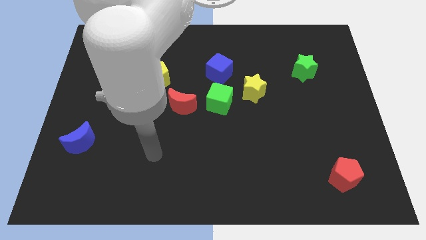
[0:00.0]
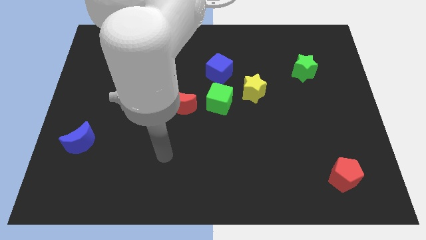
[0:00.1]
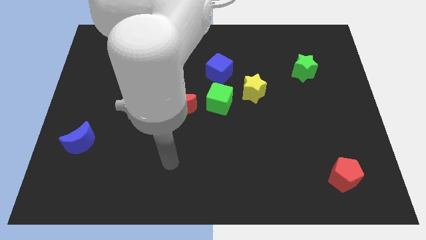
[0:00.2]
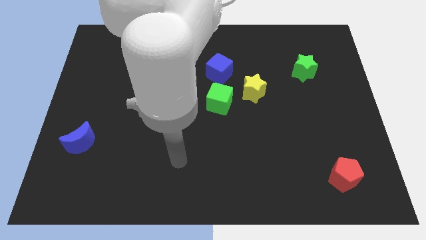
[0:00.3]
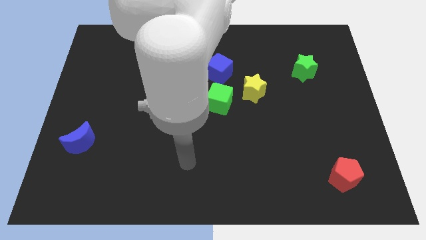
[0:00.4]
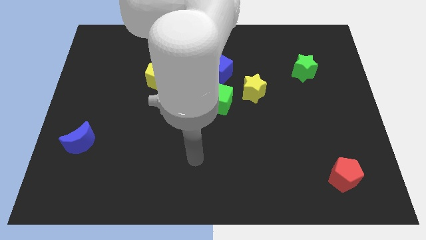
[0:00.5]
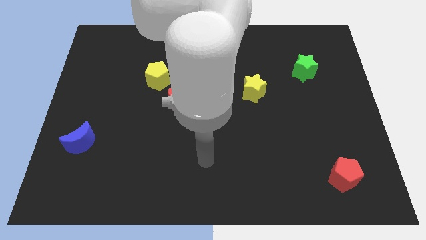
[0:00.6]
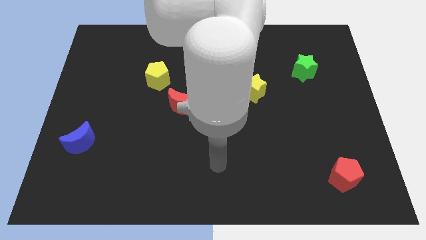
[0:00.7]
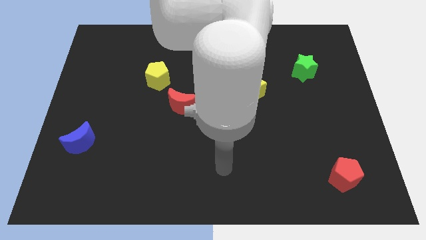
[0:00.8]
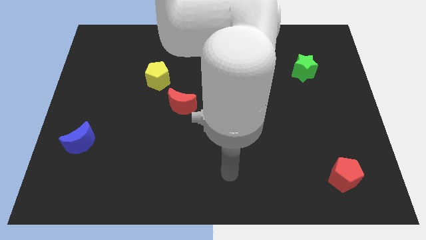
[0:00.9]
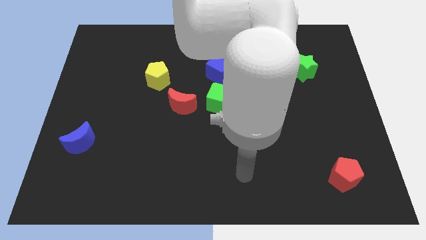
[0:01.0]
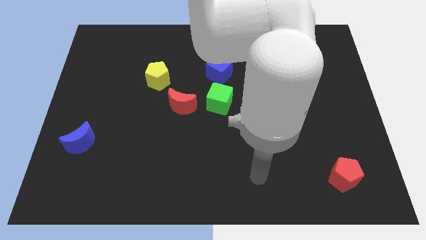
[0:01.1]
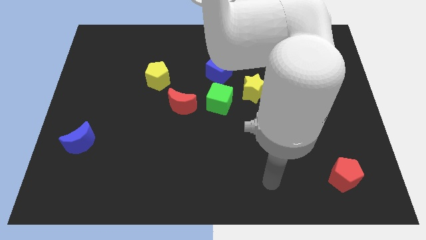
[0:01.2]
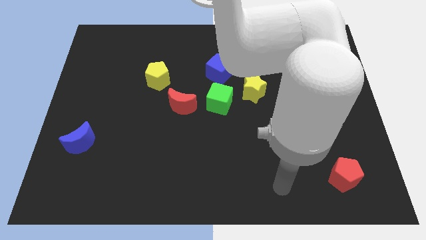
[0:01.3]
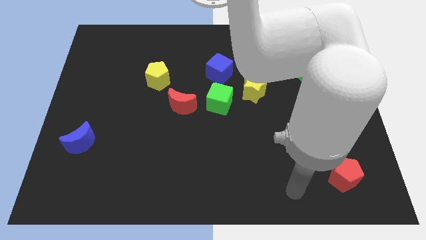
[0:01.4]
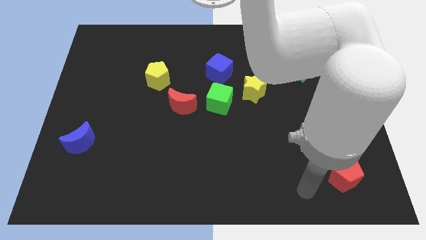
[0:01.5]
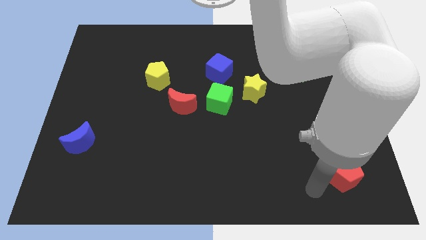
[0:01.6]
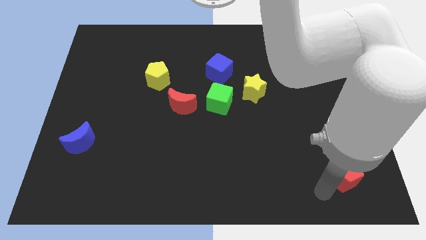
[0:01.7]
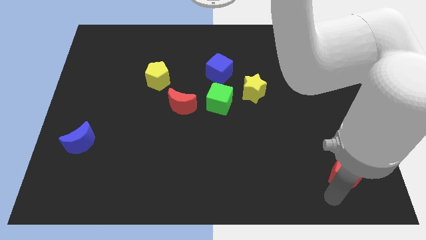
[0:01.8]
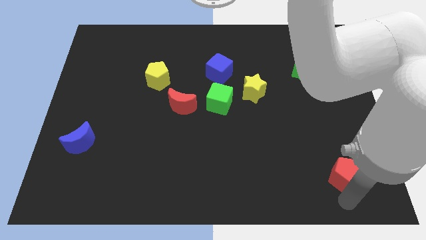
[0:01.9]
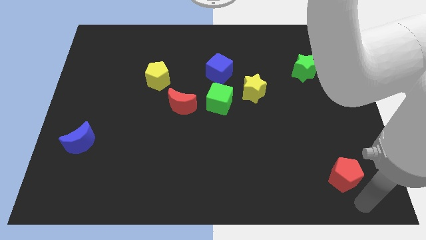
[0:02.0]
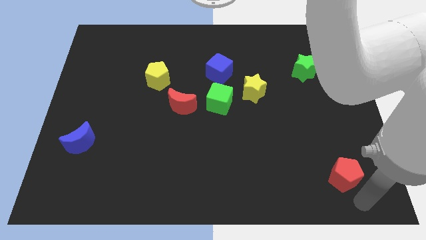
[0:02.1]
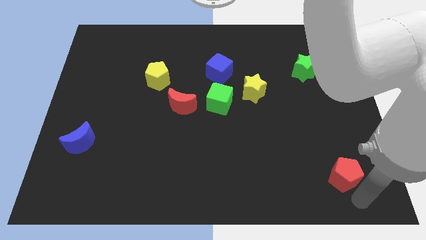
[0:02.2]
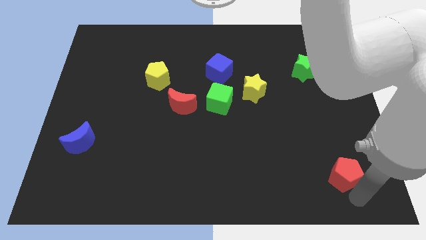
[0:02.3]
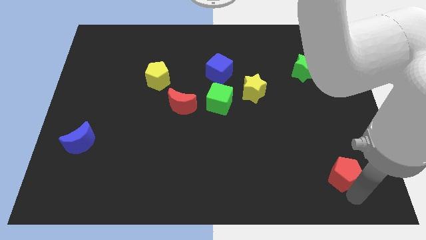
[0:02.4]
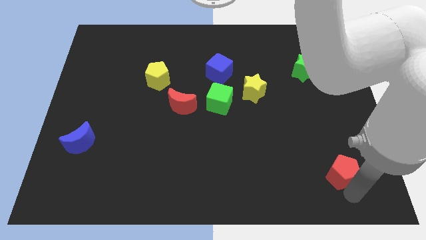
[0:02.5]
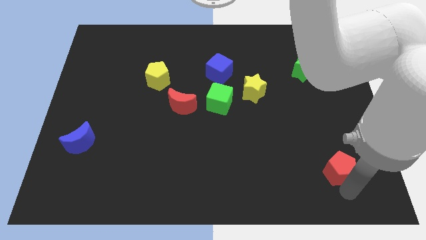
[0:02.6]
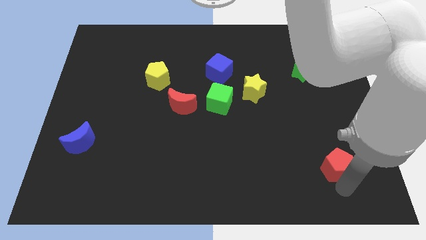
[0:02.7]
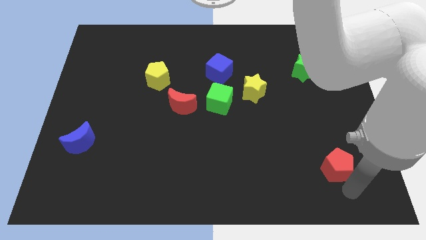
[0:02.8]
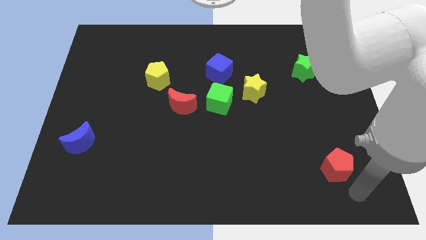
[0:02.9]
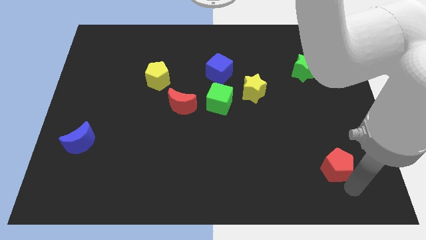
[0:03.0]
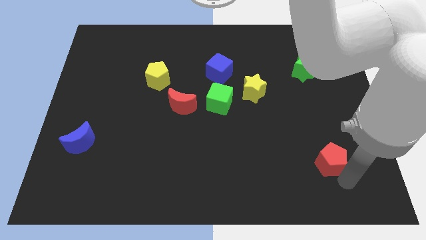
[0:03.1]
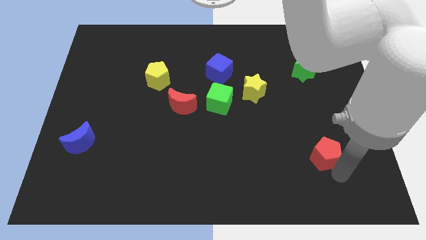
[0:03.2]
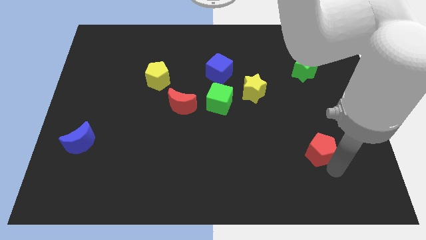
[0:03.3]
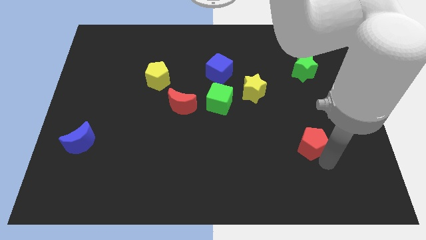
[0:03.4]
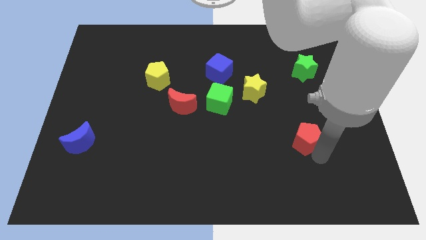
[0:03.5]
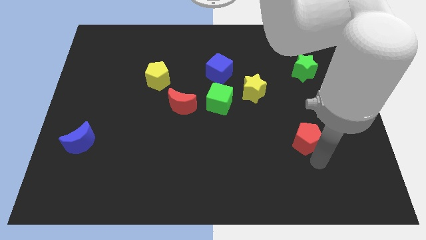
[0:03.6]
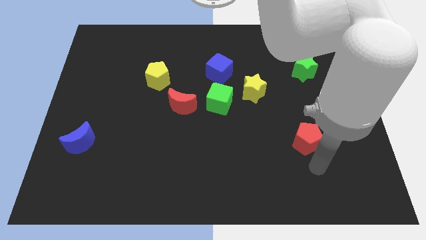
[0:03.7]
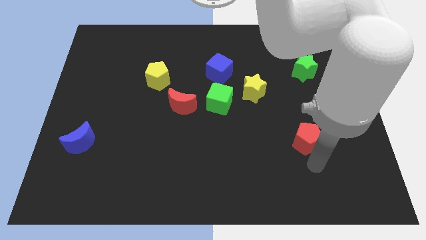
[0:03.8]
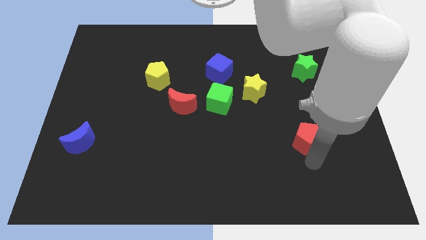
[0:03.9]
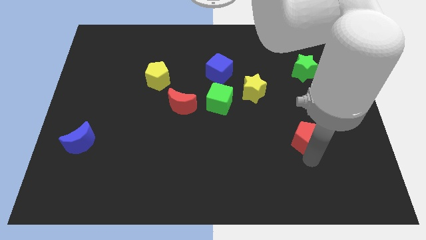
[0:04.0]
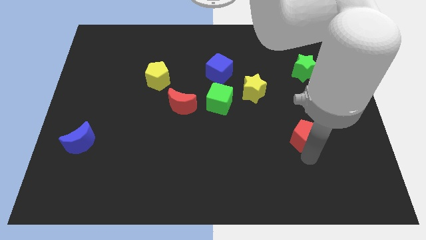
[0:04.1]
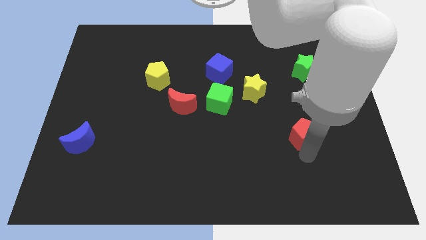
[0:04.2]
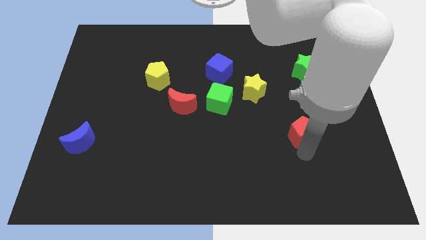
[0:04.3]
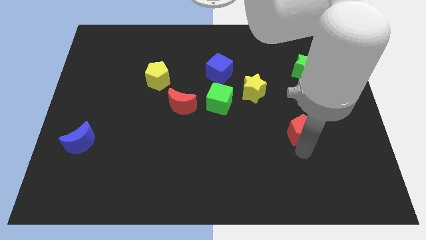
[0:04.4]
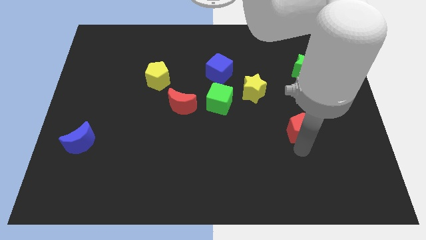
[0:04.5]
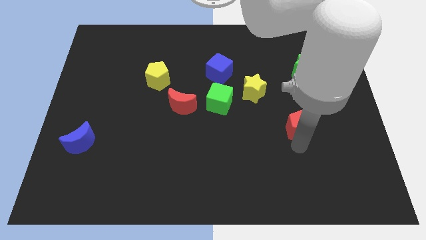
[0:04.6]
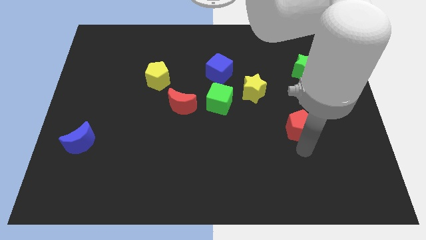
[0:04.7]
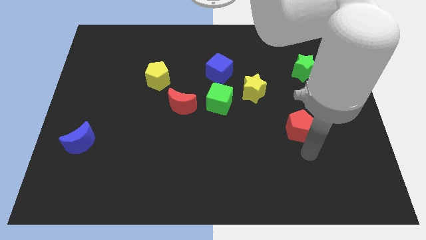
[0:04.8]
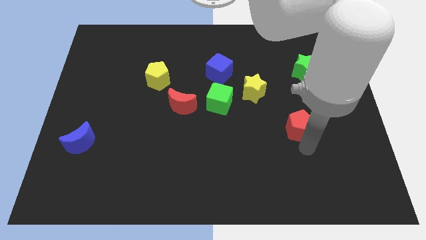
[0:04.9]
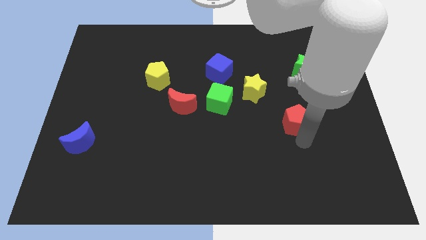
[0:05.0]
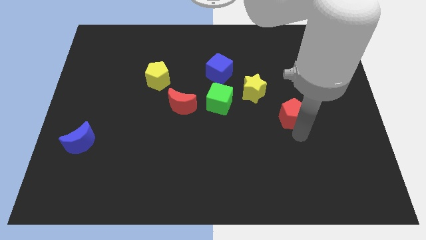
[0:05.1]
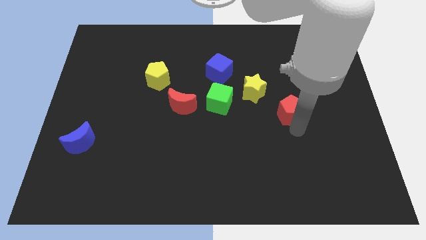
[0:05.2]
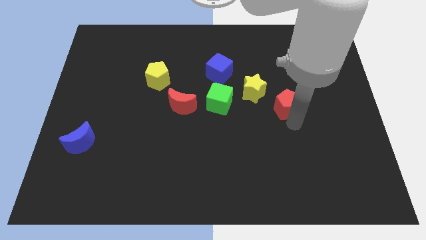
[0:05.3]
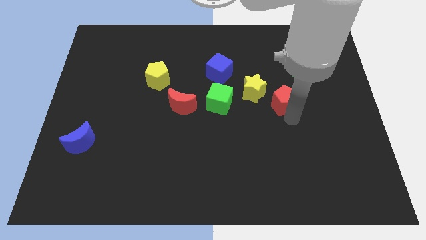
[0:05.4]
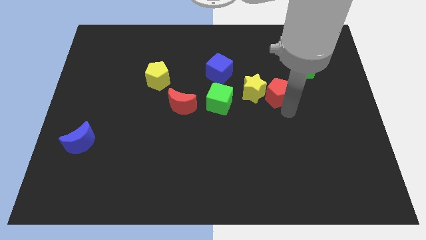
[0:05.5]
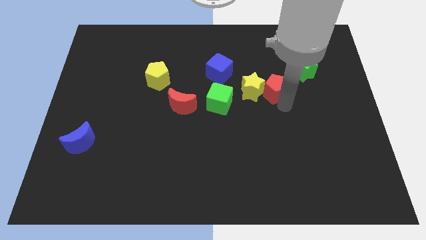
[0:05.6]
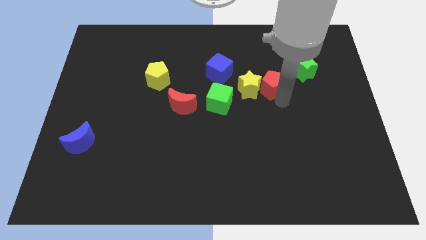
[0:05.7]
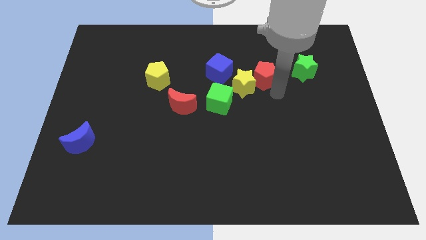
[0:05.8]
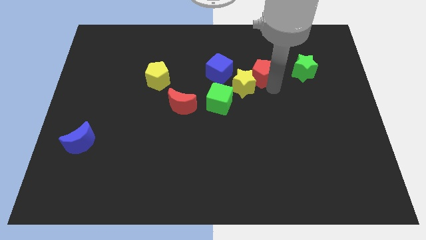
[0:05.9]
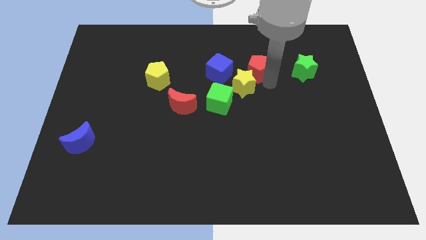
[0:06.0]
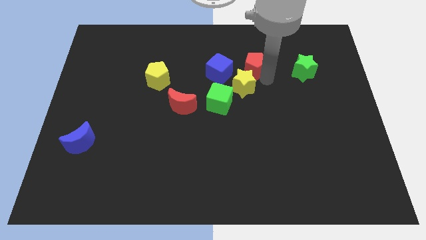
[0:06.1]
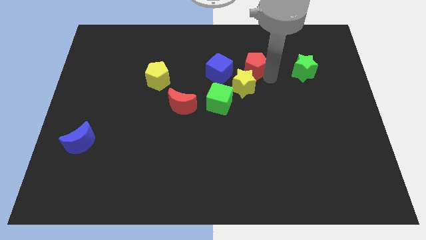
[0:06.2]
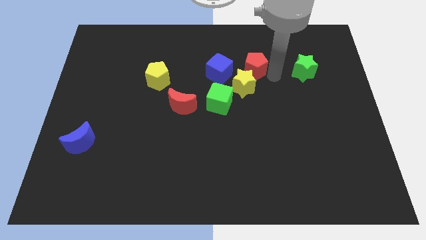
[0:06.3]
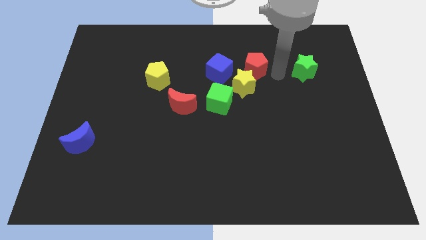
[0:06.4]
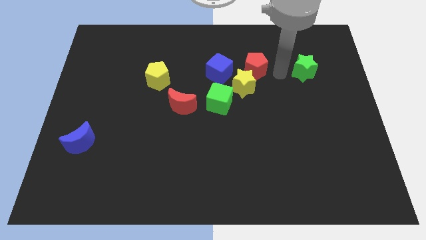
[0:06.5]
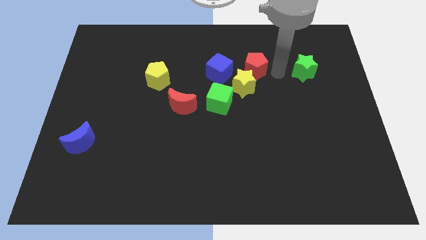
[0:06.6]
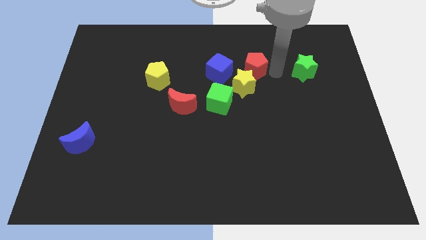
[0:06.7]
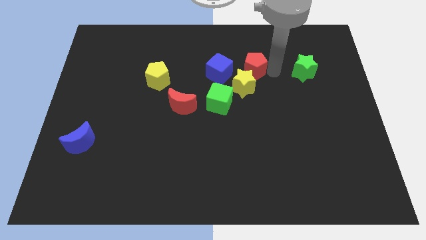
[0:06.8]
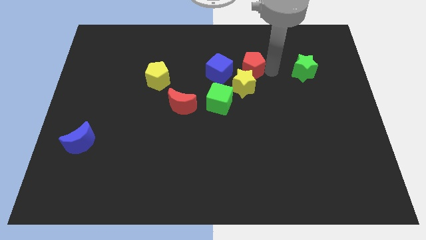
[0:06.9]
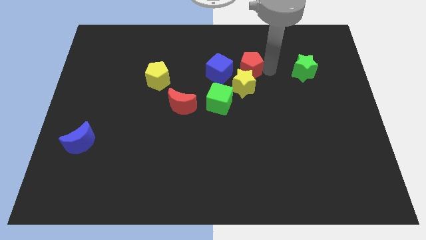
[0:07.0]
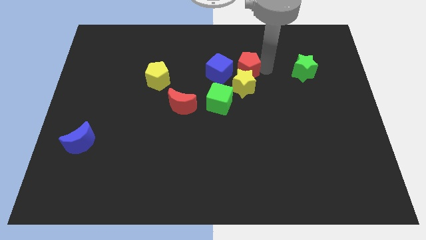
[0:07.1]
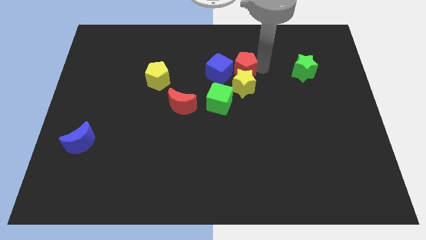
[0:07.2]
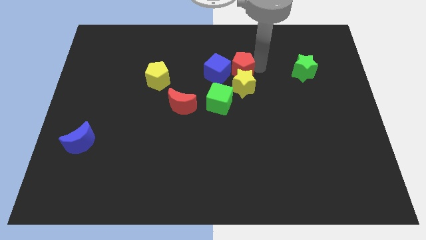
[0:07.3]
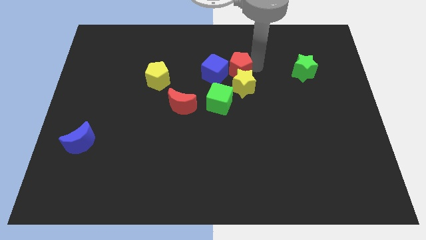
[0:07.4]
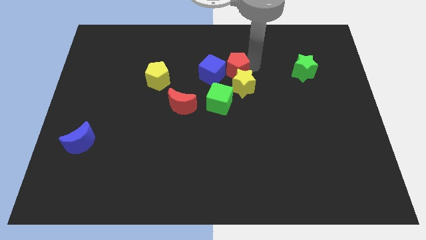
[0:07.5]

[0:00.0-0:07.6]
slide the red pentagon to the top side of the green cube

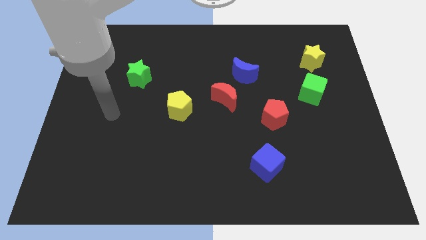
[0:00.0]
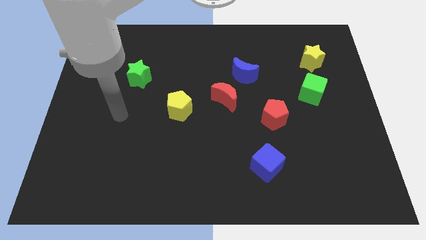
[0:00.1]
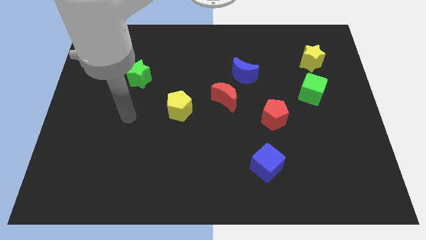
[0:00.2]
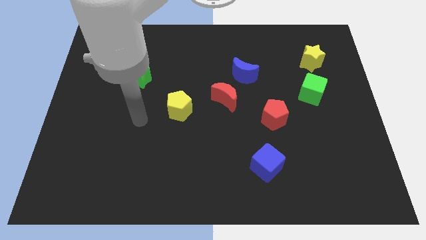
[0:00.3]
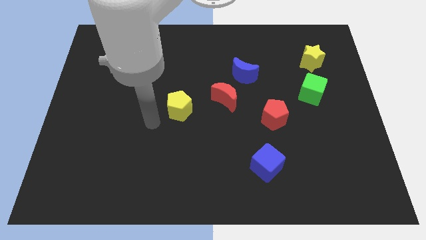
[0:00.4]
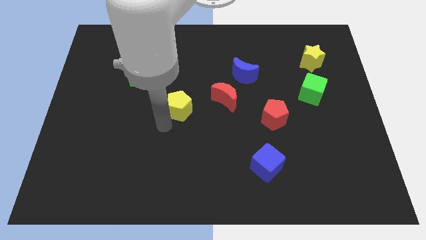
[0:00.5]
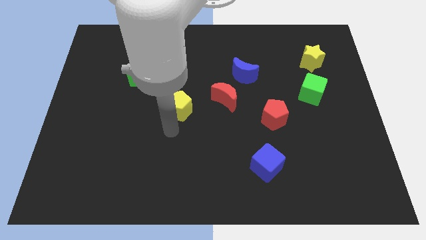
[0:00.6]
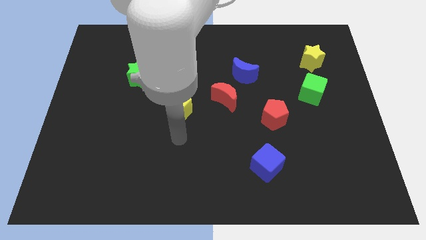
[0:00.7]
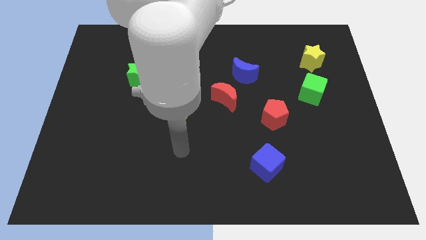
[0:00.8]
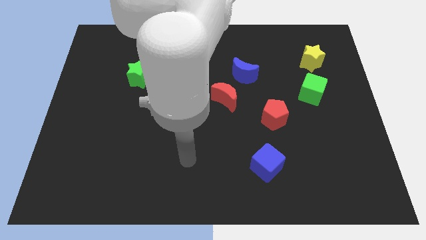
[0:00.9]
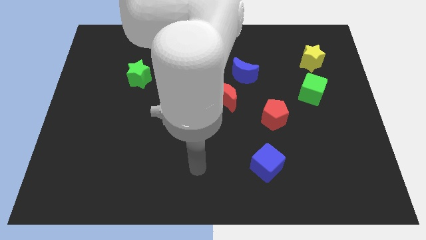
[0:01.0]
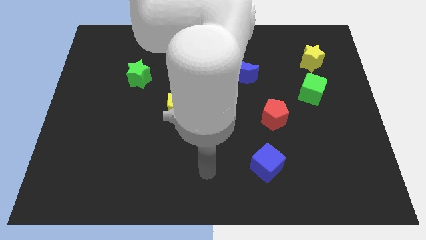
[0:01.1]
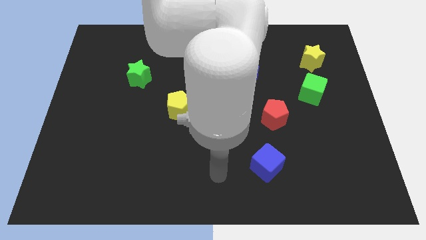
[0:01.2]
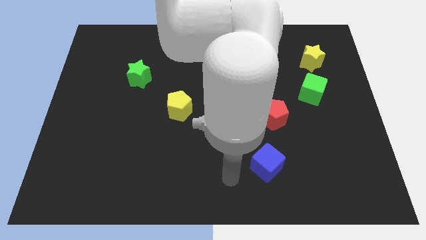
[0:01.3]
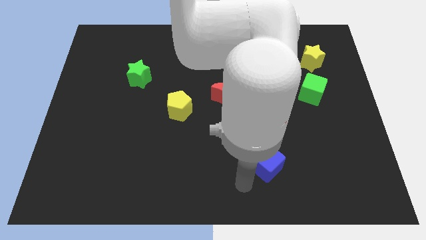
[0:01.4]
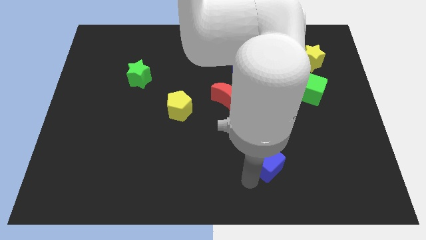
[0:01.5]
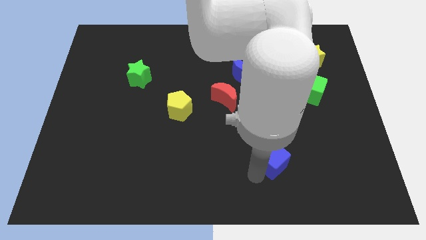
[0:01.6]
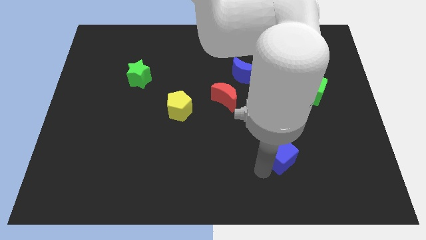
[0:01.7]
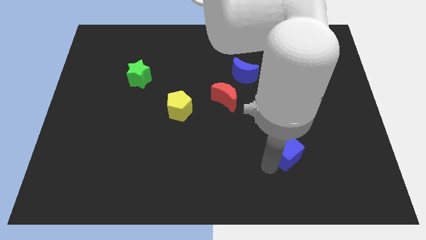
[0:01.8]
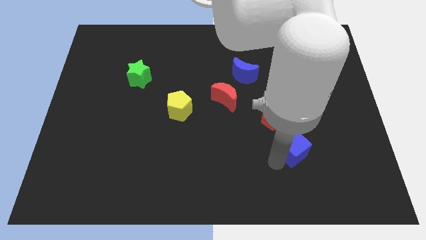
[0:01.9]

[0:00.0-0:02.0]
put the blue cube to the bottom right side of the red pentagon
